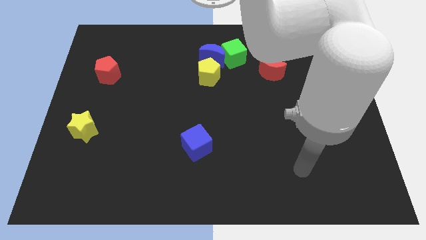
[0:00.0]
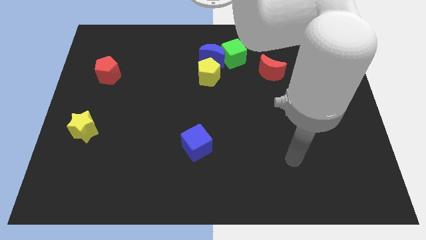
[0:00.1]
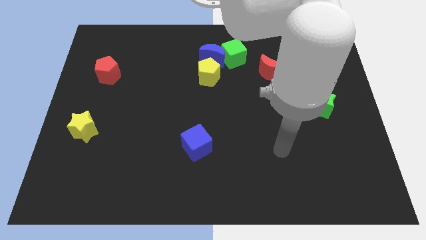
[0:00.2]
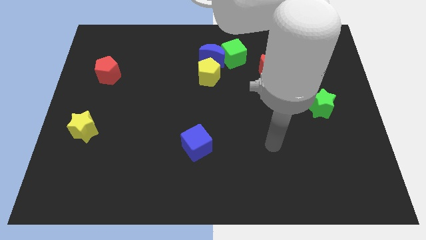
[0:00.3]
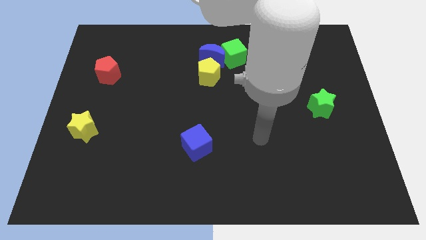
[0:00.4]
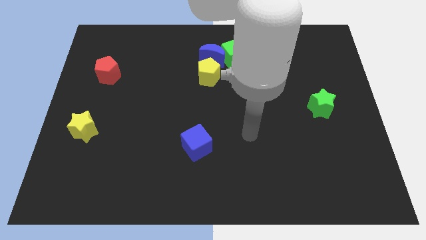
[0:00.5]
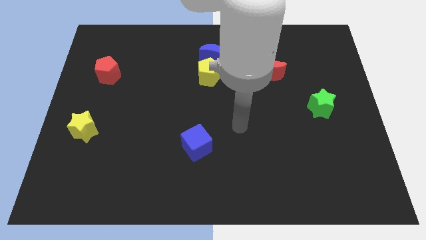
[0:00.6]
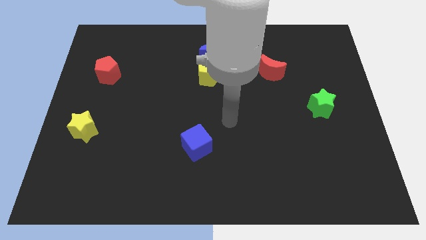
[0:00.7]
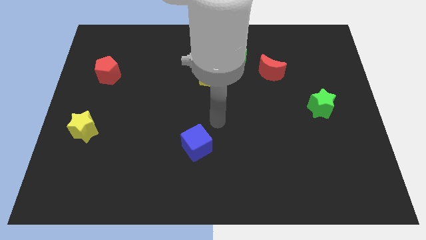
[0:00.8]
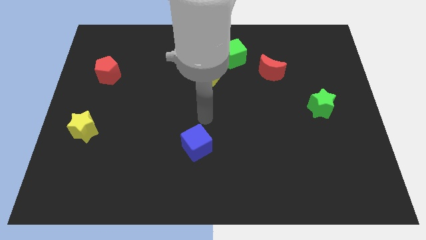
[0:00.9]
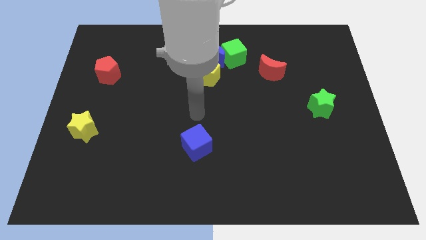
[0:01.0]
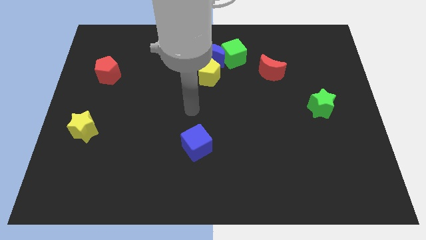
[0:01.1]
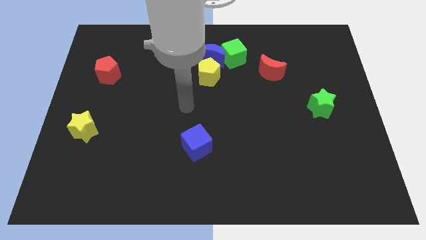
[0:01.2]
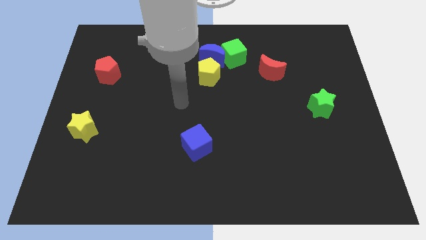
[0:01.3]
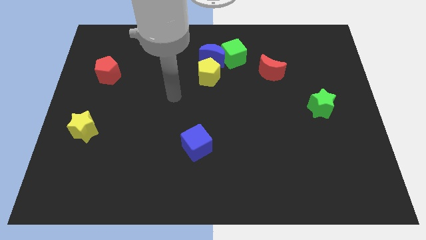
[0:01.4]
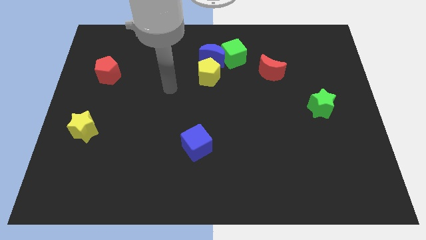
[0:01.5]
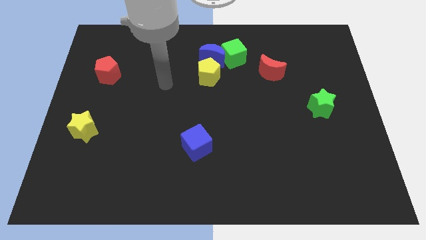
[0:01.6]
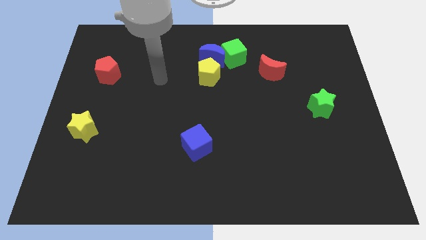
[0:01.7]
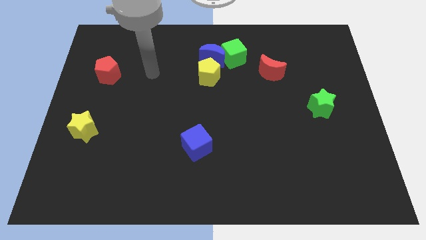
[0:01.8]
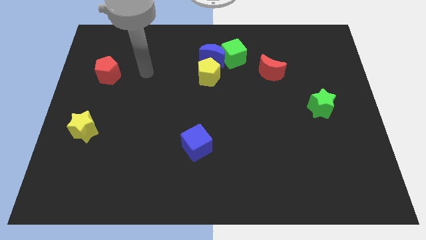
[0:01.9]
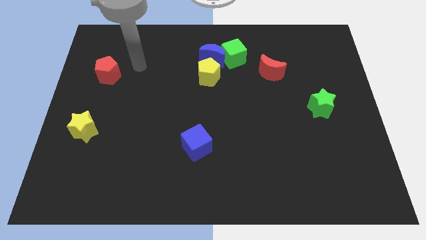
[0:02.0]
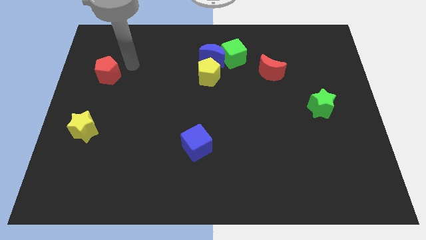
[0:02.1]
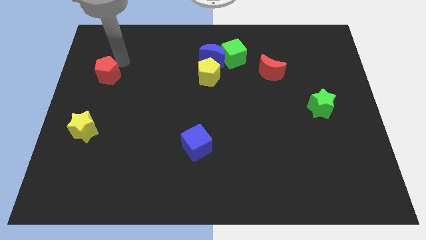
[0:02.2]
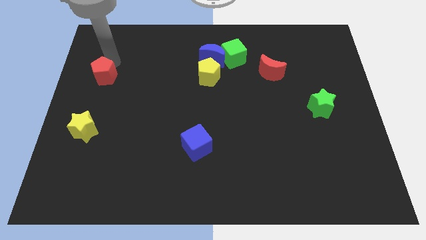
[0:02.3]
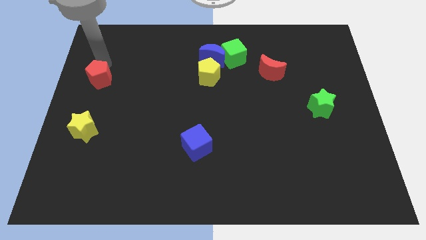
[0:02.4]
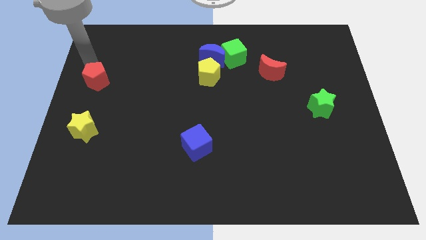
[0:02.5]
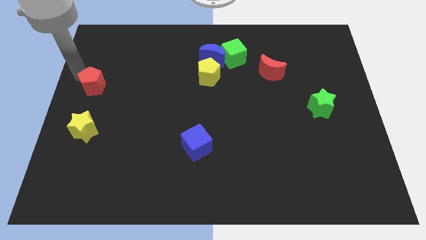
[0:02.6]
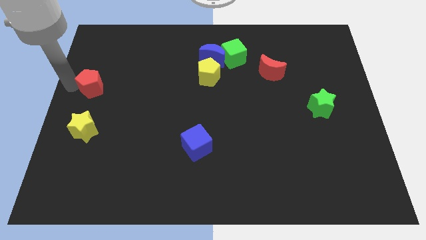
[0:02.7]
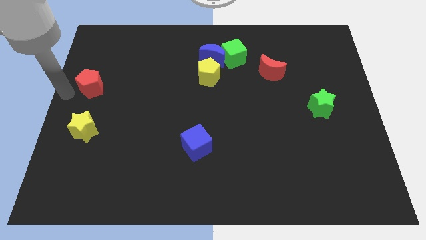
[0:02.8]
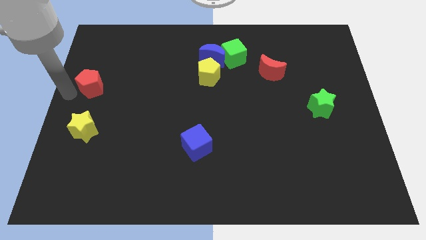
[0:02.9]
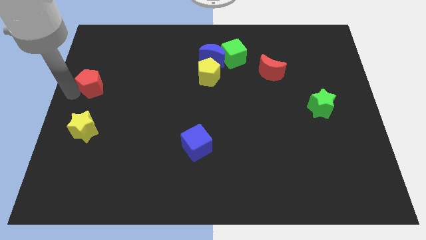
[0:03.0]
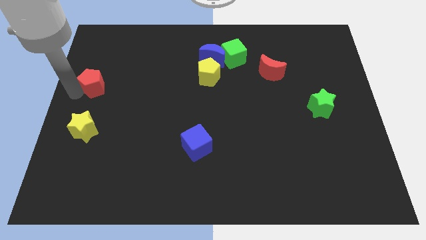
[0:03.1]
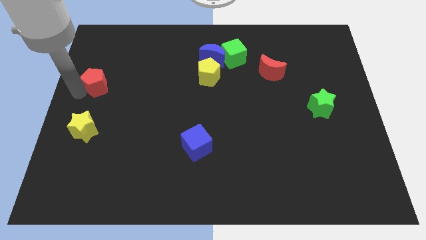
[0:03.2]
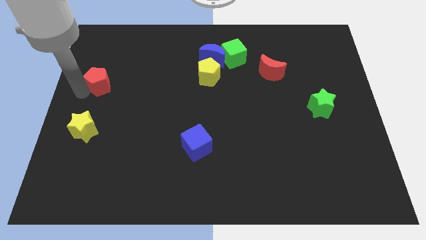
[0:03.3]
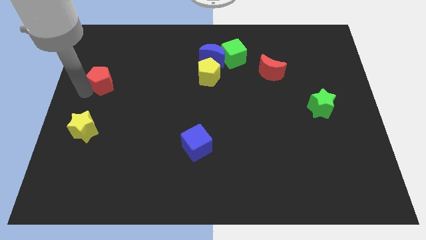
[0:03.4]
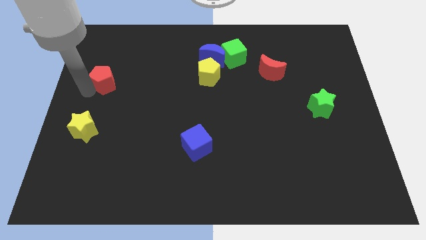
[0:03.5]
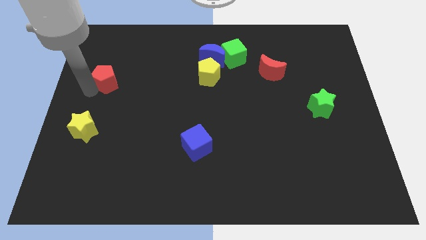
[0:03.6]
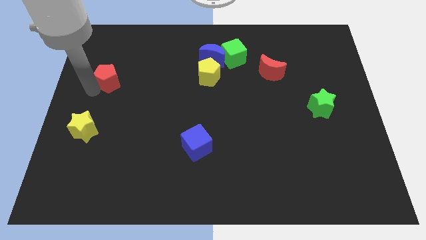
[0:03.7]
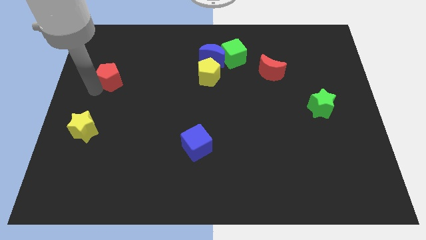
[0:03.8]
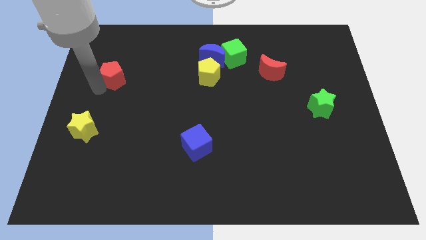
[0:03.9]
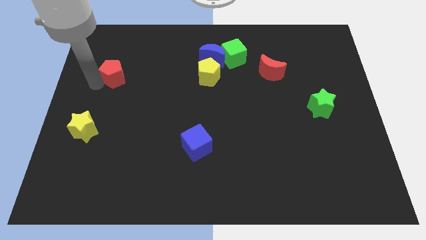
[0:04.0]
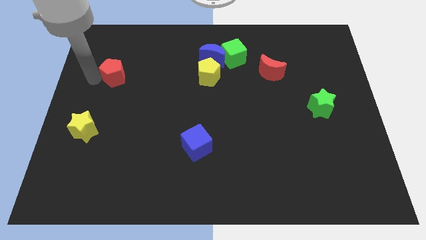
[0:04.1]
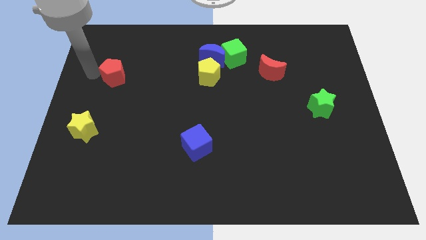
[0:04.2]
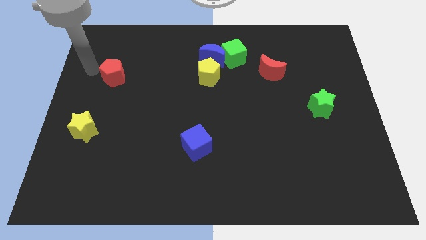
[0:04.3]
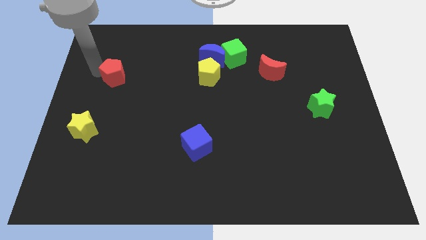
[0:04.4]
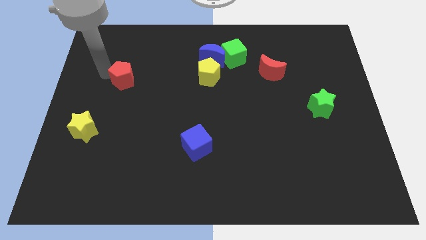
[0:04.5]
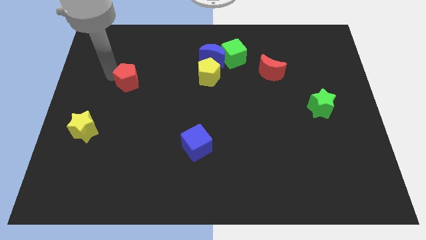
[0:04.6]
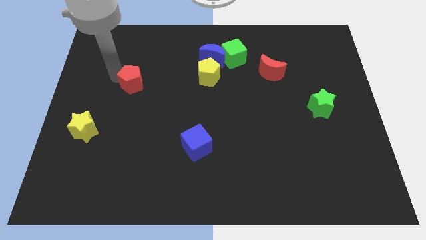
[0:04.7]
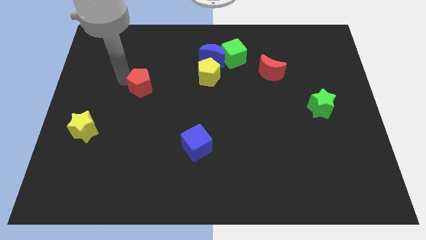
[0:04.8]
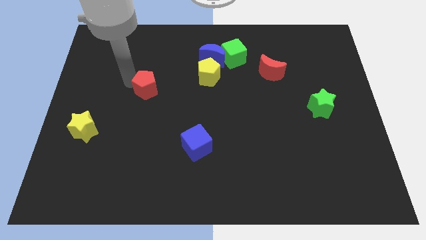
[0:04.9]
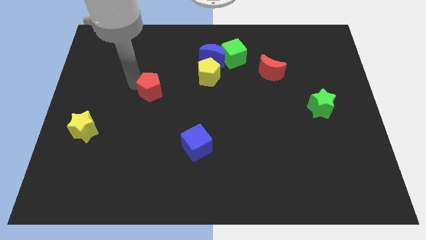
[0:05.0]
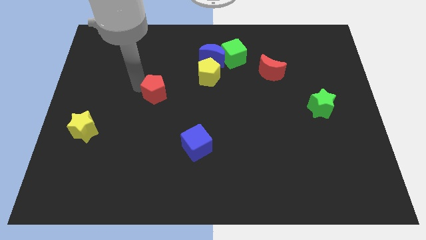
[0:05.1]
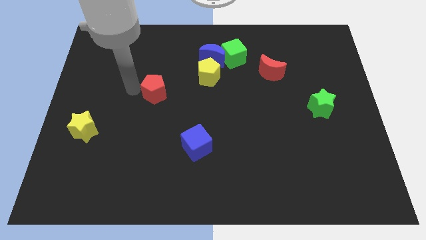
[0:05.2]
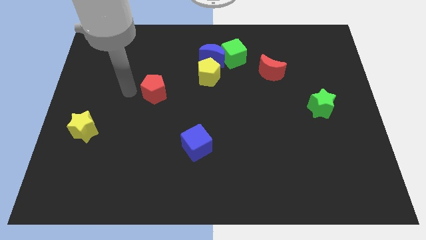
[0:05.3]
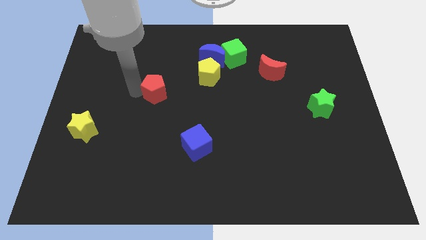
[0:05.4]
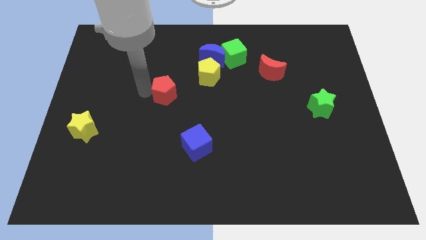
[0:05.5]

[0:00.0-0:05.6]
move the red pentagon to the bottom left of the yellow pentagon

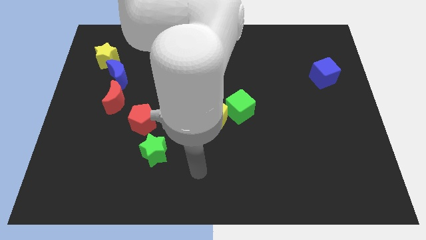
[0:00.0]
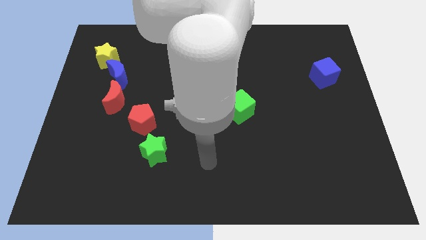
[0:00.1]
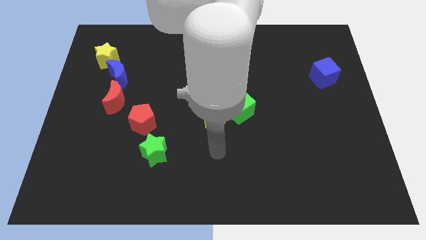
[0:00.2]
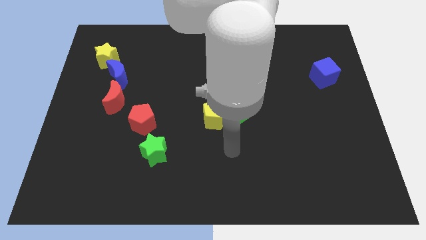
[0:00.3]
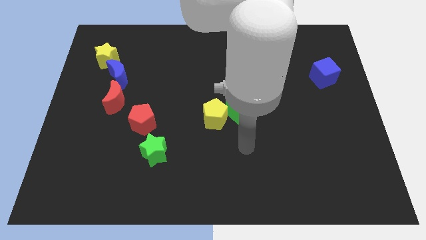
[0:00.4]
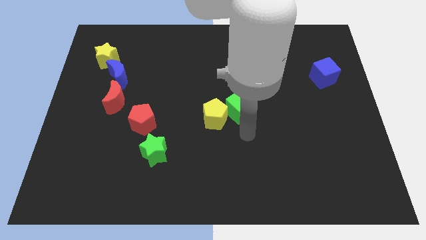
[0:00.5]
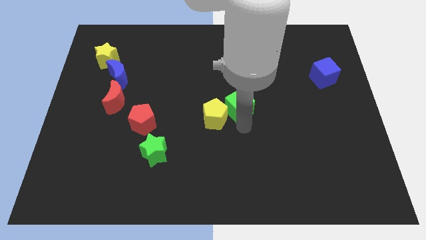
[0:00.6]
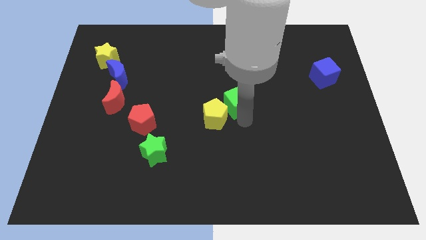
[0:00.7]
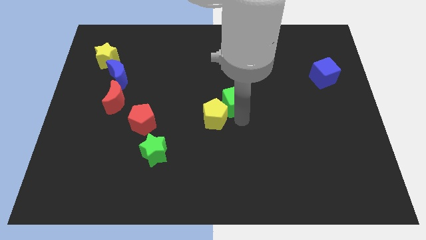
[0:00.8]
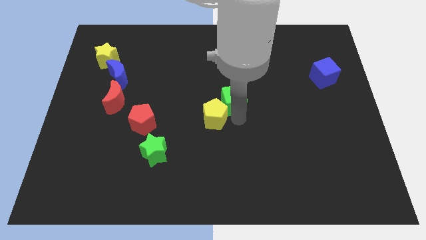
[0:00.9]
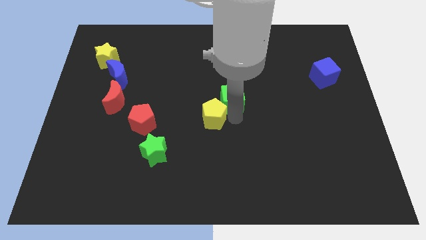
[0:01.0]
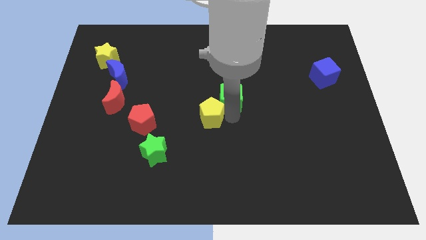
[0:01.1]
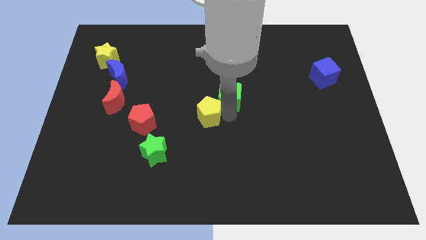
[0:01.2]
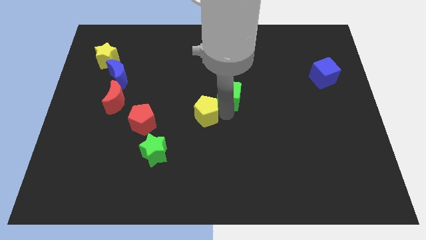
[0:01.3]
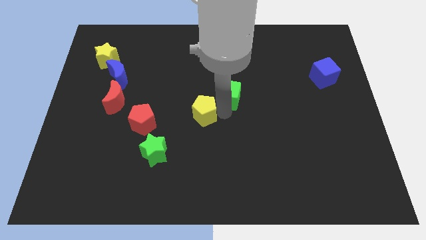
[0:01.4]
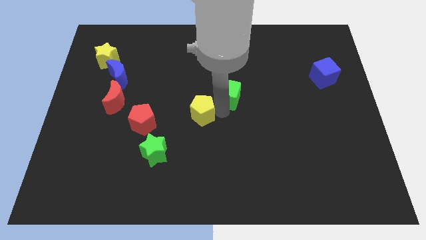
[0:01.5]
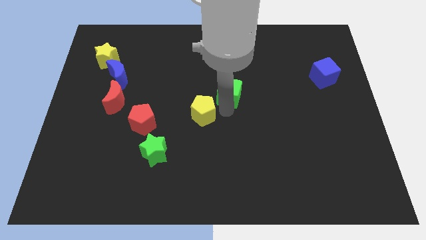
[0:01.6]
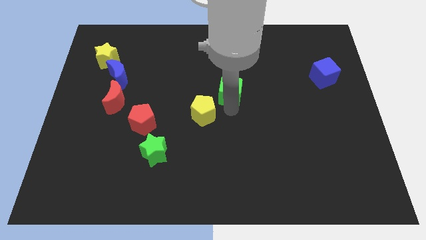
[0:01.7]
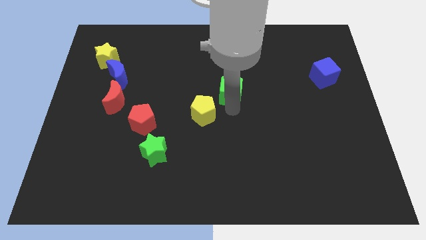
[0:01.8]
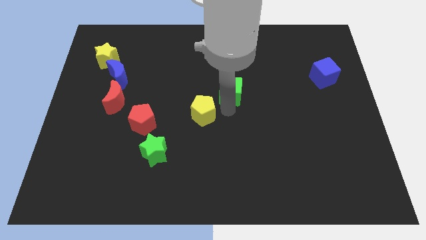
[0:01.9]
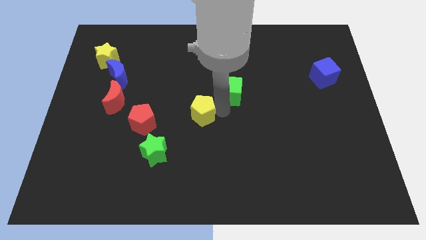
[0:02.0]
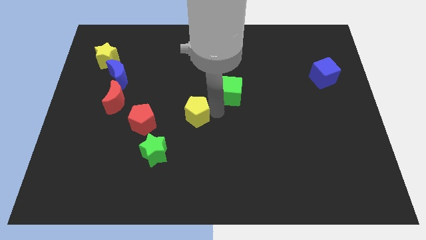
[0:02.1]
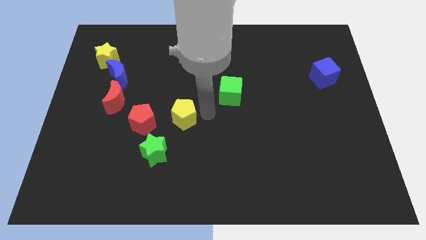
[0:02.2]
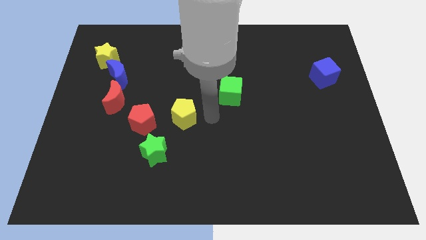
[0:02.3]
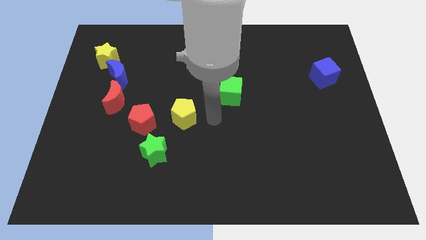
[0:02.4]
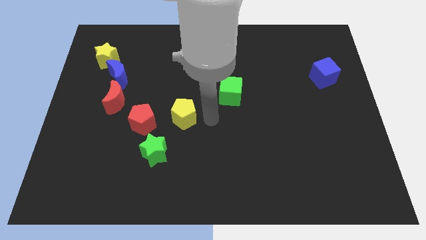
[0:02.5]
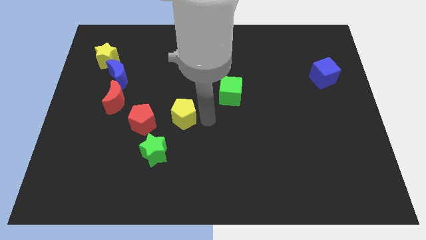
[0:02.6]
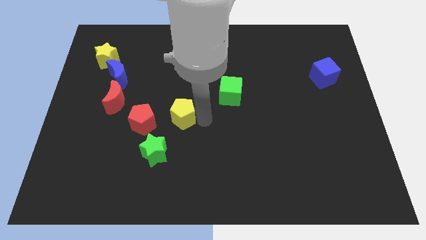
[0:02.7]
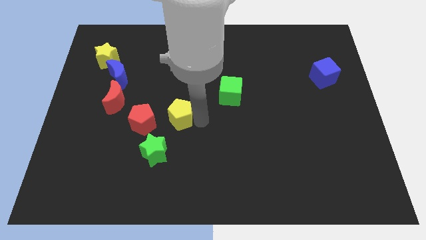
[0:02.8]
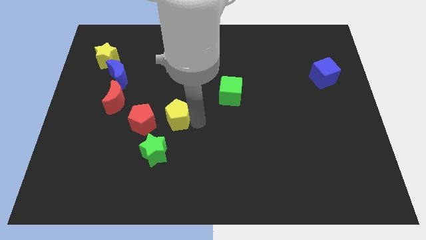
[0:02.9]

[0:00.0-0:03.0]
slide the yellow pentagon to the top of the green star
